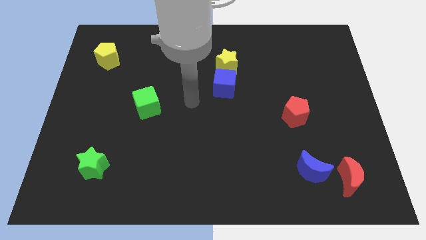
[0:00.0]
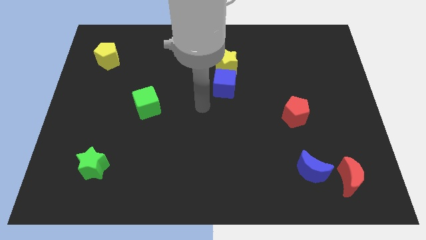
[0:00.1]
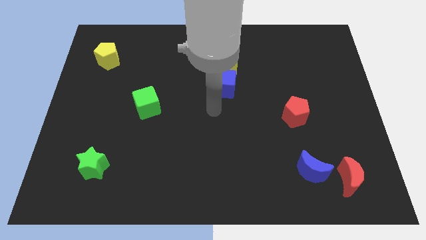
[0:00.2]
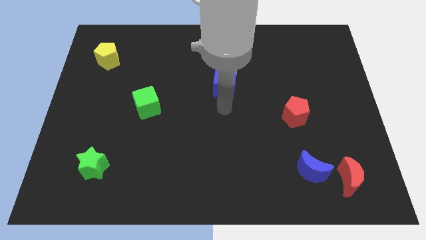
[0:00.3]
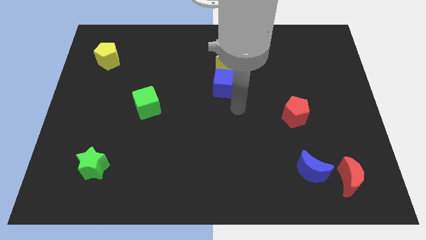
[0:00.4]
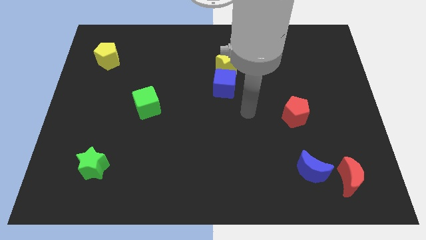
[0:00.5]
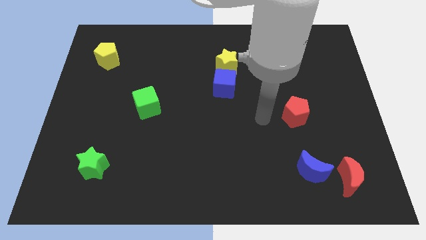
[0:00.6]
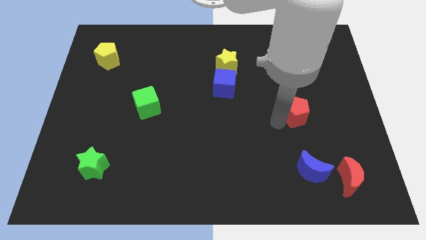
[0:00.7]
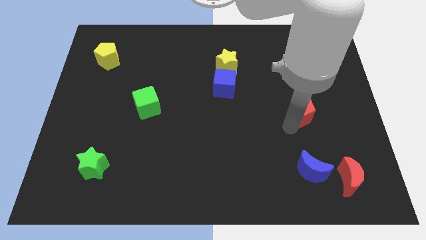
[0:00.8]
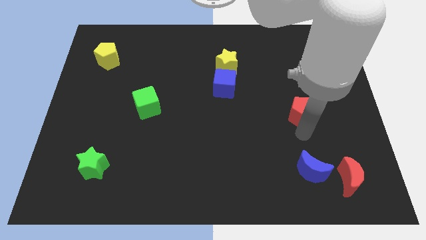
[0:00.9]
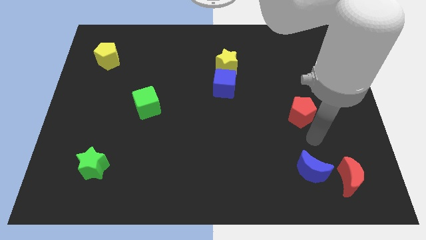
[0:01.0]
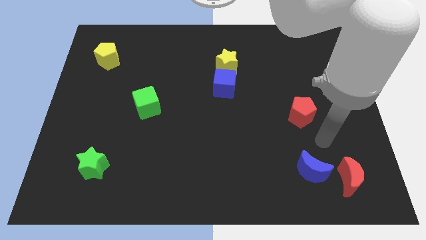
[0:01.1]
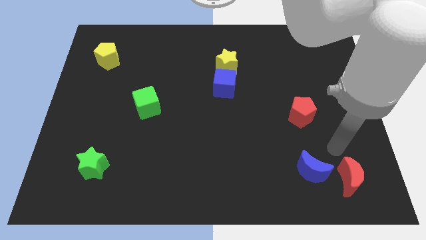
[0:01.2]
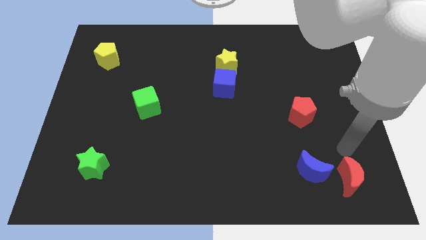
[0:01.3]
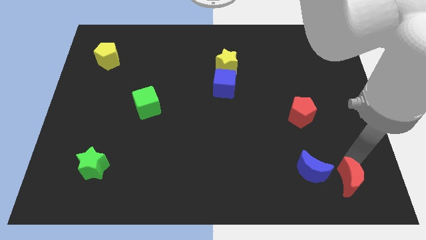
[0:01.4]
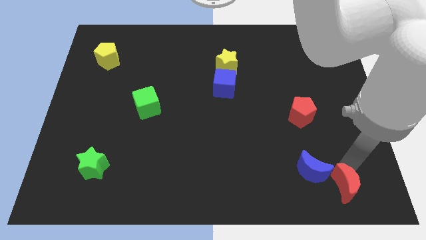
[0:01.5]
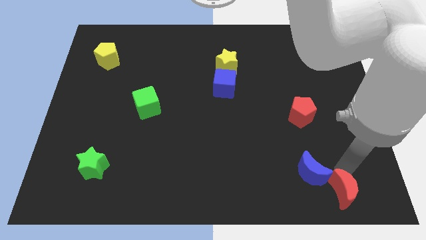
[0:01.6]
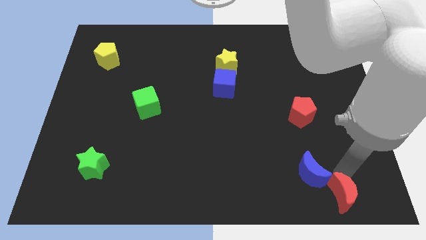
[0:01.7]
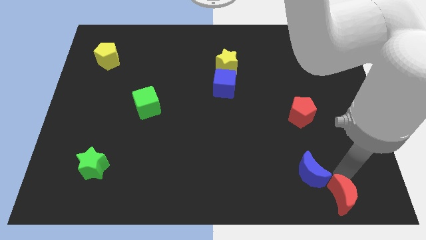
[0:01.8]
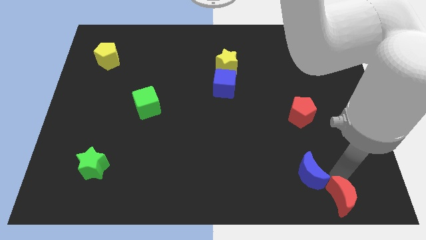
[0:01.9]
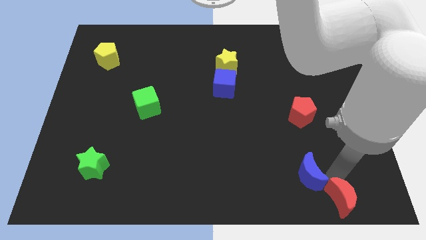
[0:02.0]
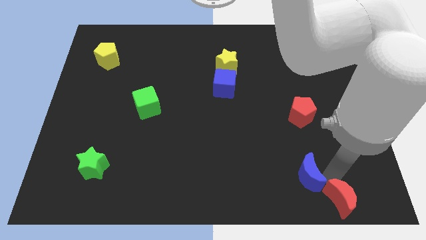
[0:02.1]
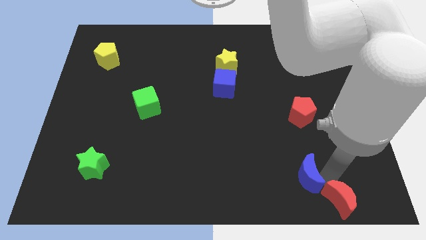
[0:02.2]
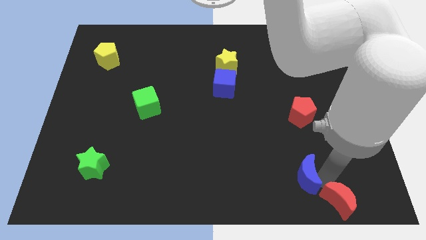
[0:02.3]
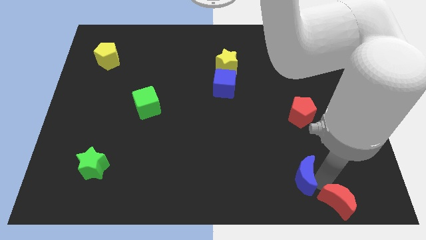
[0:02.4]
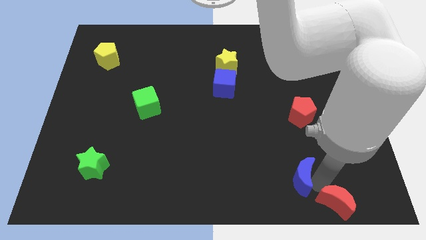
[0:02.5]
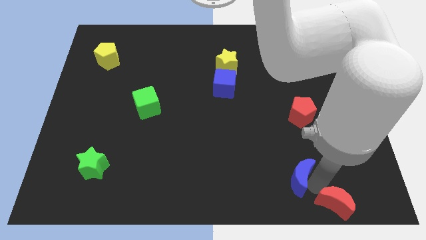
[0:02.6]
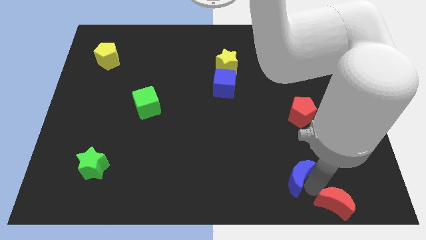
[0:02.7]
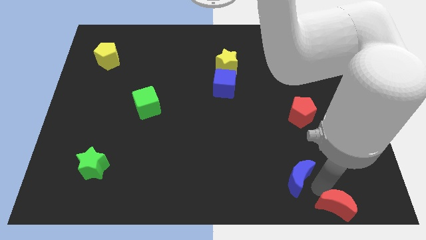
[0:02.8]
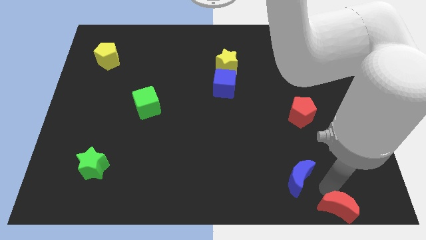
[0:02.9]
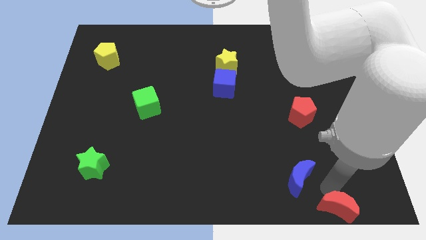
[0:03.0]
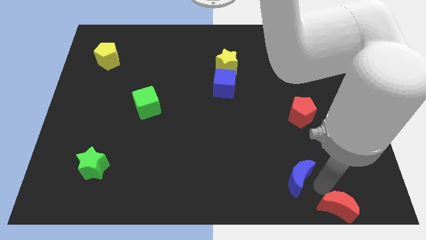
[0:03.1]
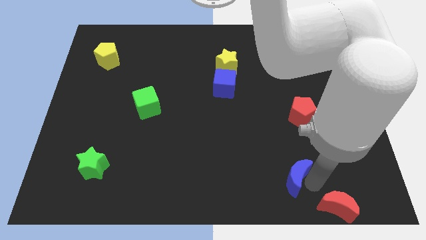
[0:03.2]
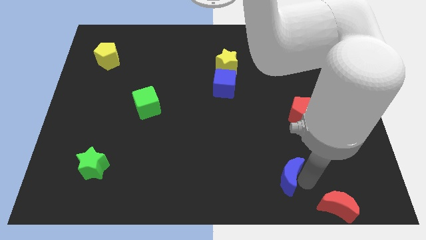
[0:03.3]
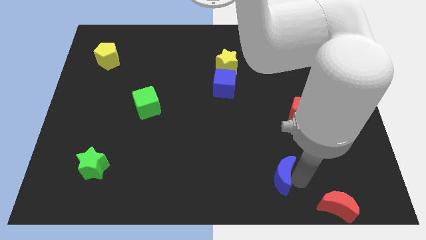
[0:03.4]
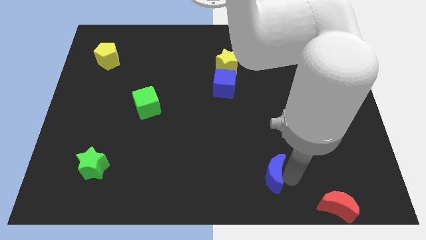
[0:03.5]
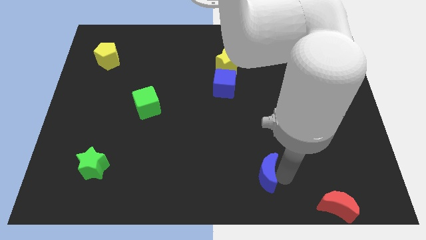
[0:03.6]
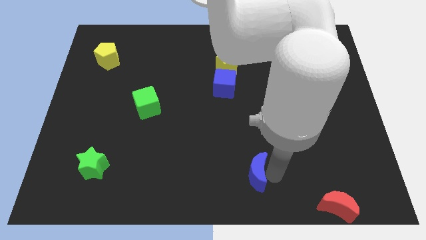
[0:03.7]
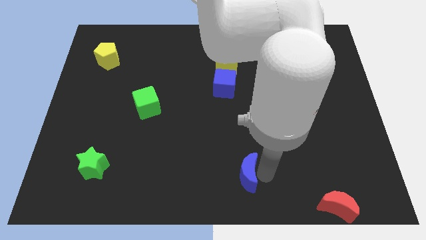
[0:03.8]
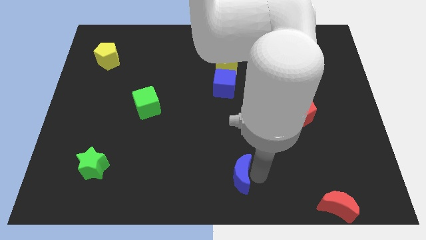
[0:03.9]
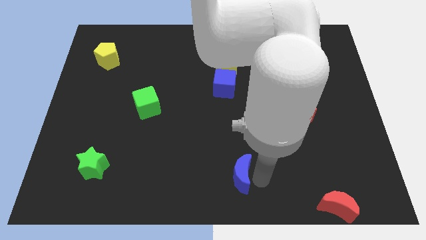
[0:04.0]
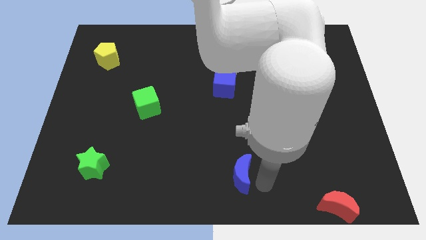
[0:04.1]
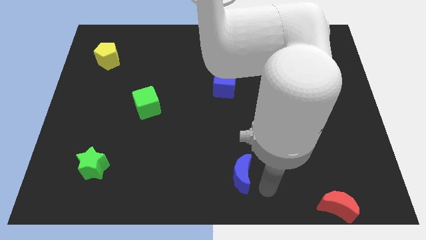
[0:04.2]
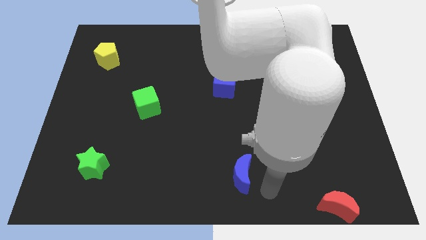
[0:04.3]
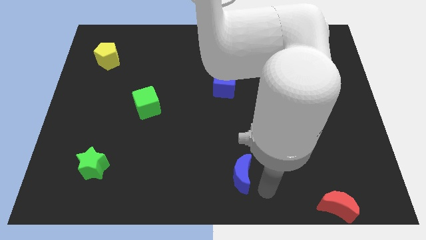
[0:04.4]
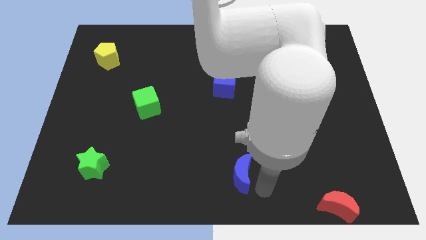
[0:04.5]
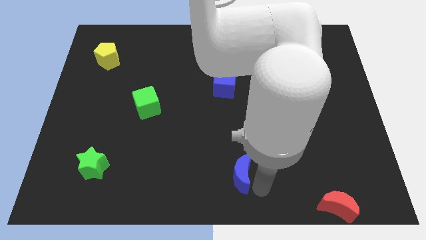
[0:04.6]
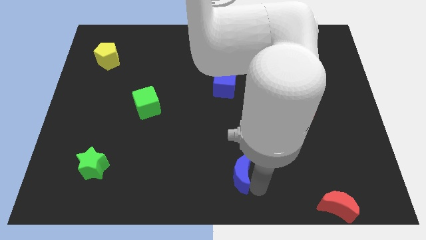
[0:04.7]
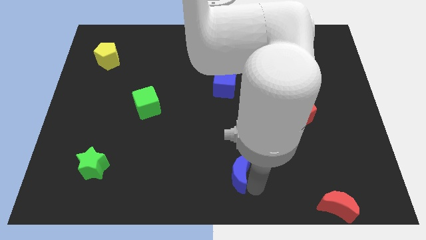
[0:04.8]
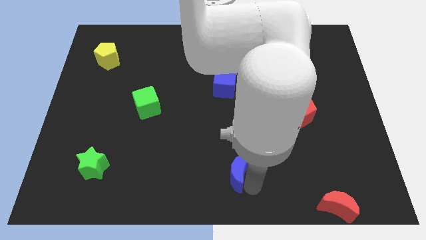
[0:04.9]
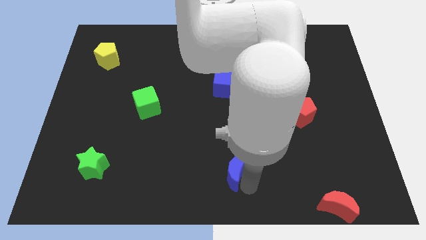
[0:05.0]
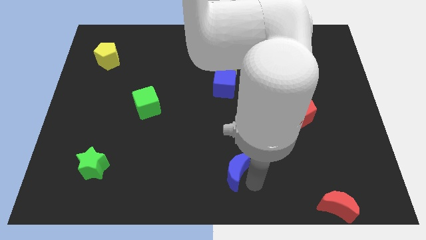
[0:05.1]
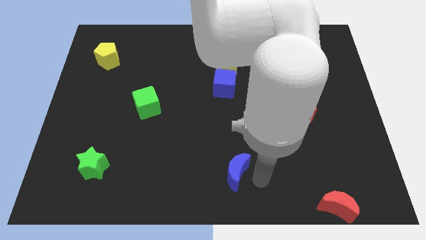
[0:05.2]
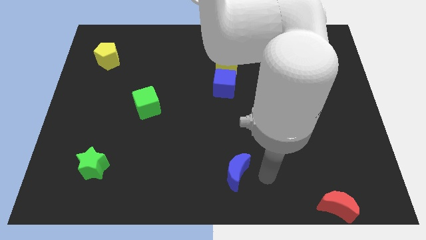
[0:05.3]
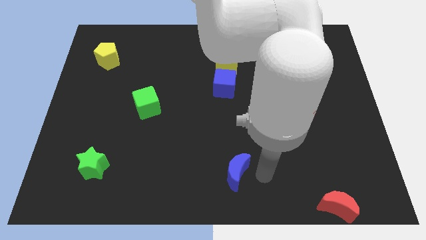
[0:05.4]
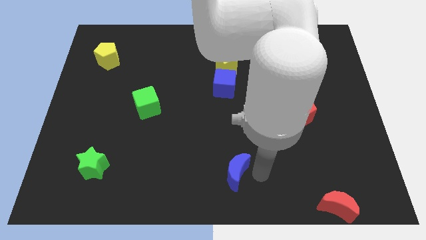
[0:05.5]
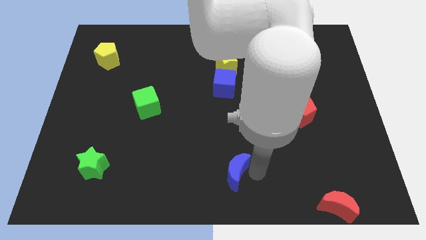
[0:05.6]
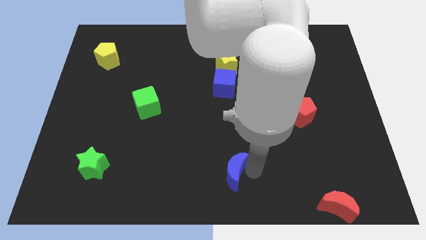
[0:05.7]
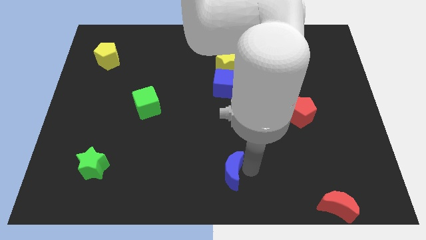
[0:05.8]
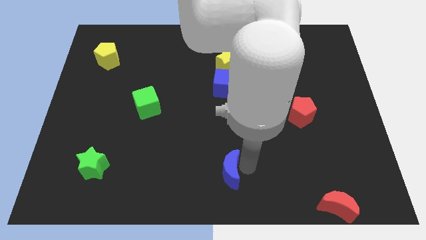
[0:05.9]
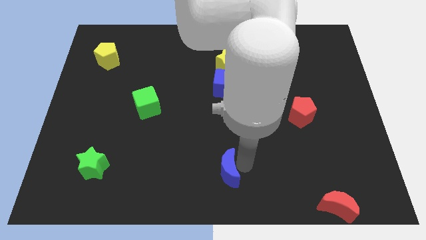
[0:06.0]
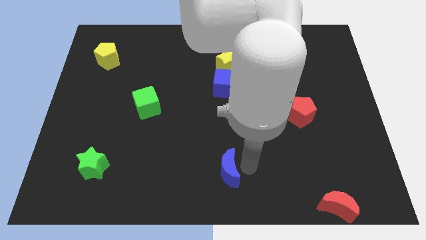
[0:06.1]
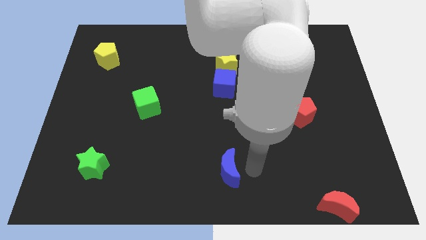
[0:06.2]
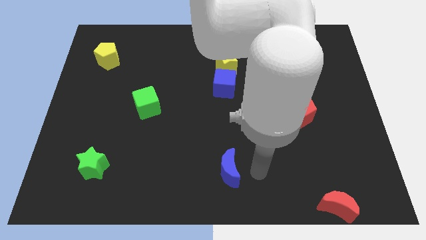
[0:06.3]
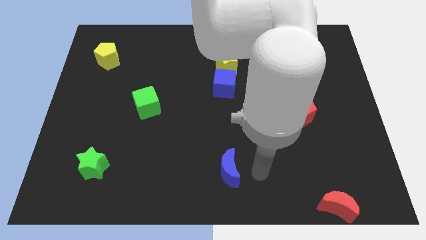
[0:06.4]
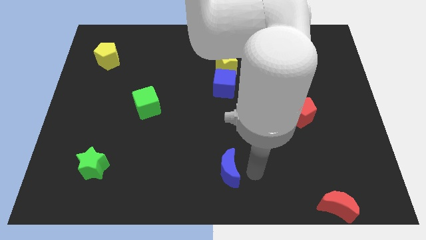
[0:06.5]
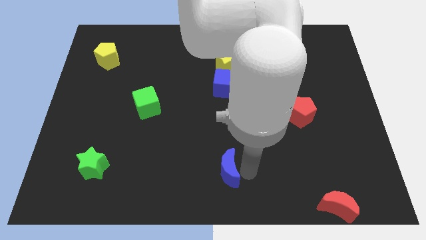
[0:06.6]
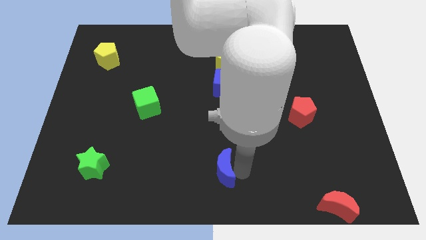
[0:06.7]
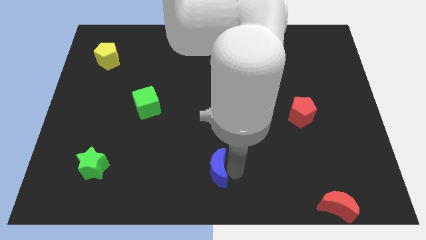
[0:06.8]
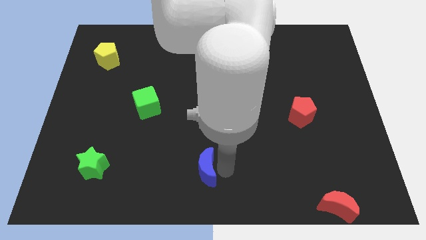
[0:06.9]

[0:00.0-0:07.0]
move the blue moon to the left

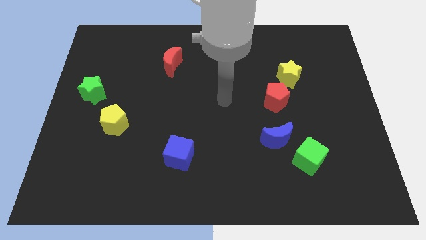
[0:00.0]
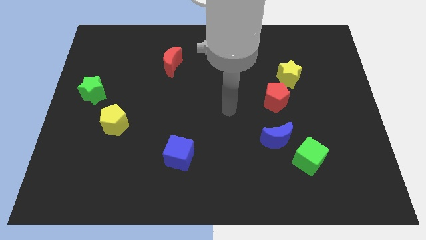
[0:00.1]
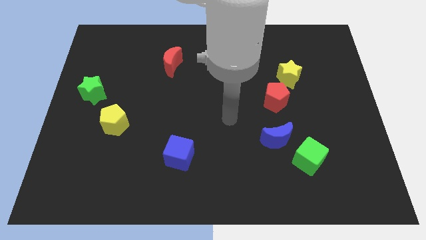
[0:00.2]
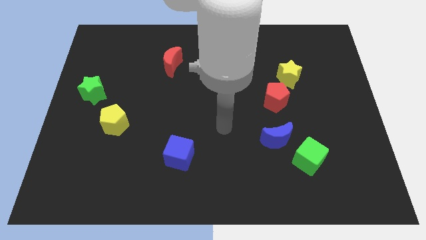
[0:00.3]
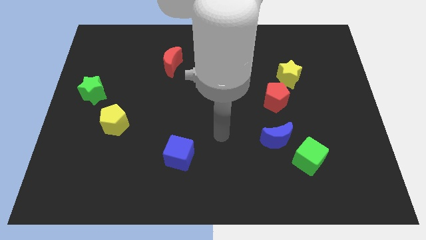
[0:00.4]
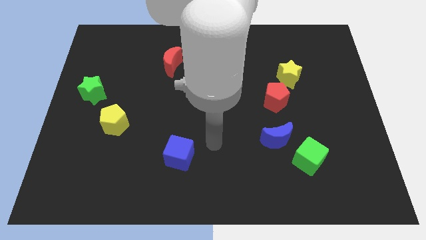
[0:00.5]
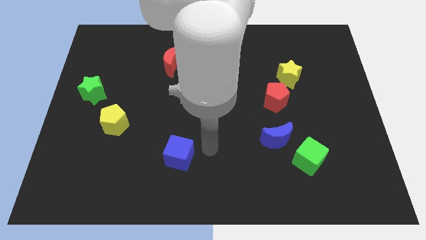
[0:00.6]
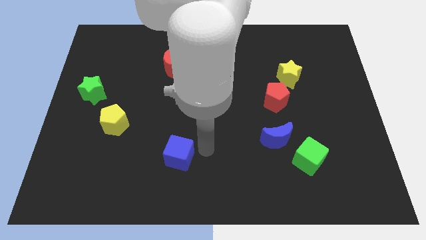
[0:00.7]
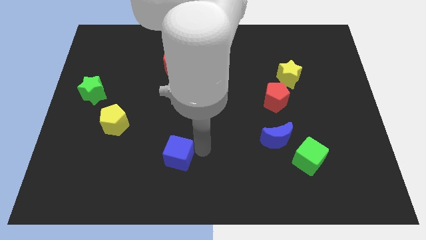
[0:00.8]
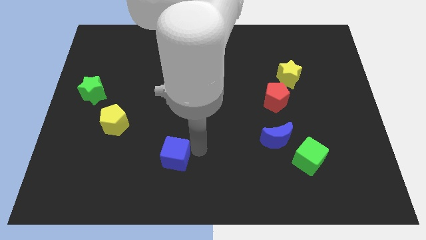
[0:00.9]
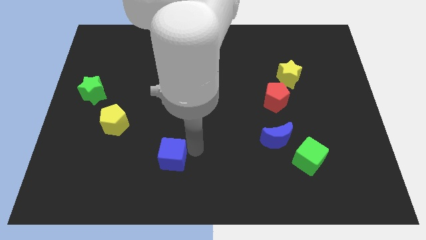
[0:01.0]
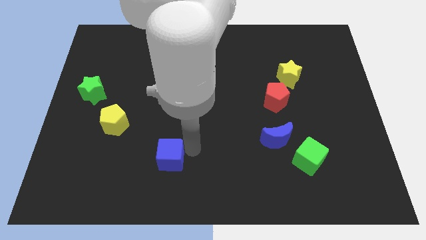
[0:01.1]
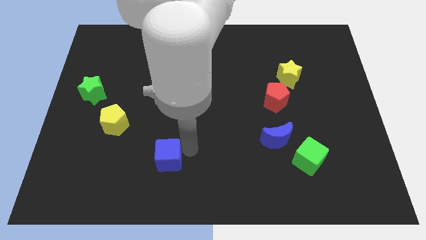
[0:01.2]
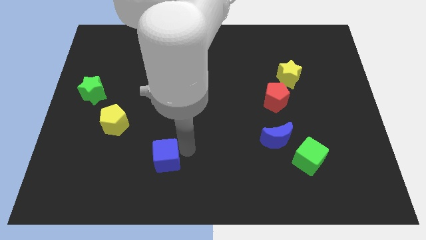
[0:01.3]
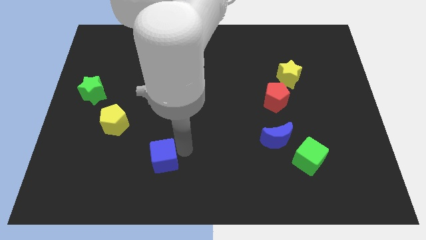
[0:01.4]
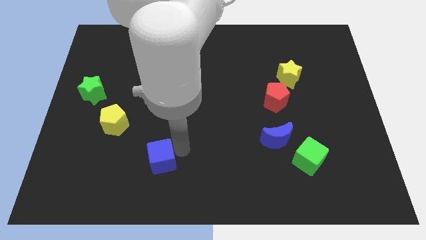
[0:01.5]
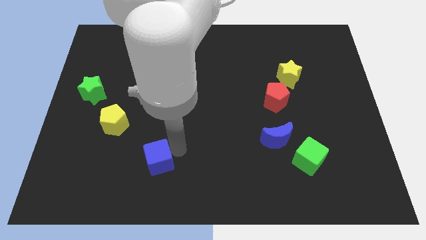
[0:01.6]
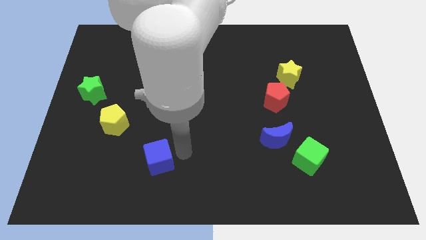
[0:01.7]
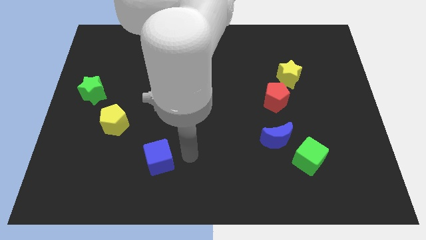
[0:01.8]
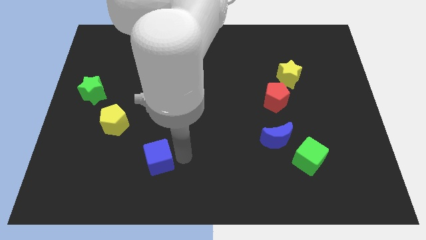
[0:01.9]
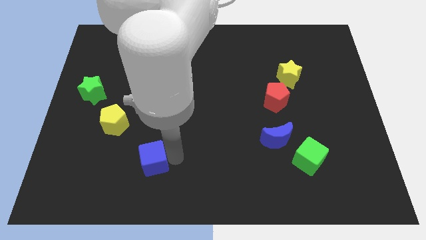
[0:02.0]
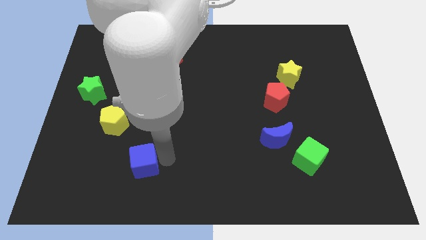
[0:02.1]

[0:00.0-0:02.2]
slide the blue cube a little to the left
